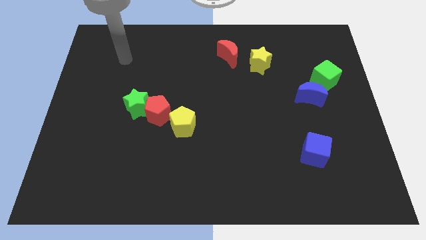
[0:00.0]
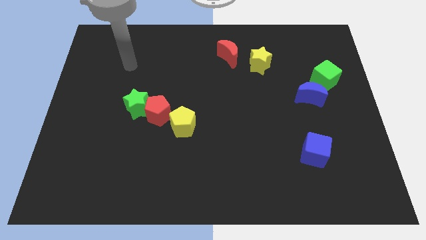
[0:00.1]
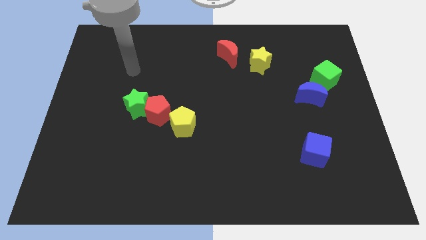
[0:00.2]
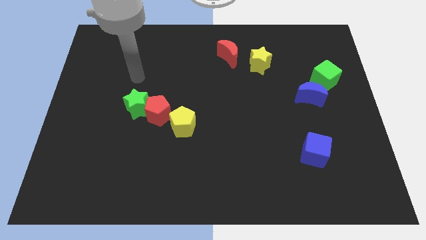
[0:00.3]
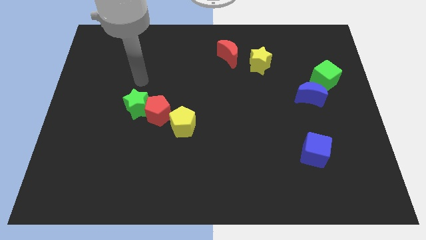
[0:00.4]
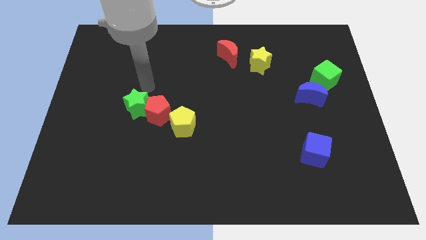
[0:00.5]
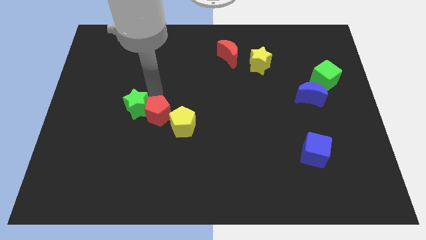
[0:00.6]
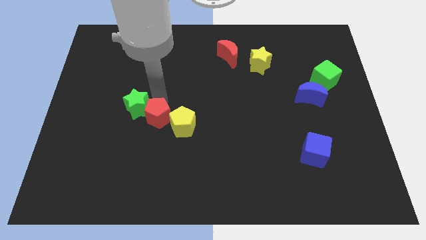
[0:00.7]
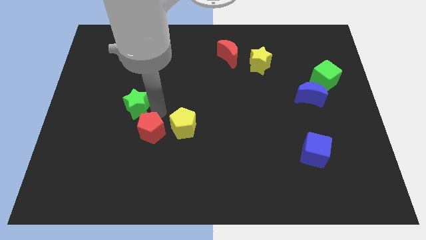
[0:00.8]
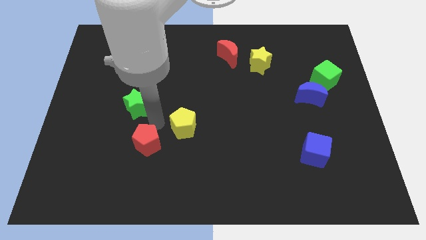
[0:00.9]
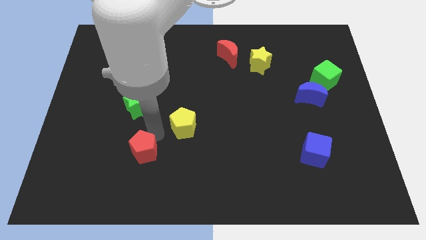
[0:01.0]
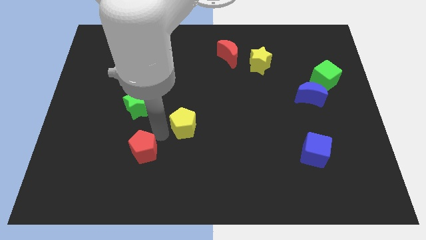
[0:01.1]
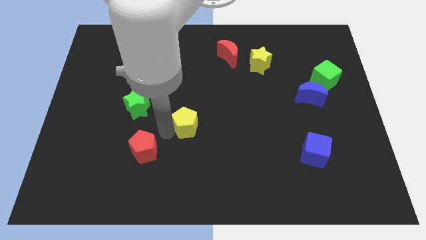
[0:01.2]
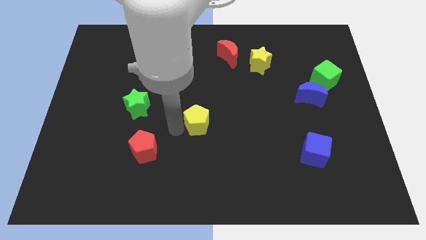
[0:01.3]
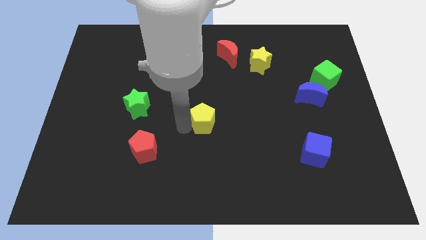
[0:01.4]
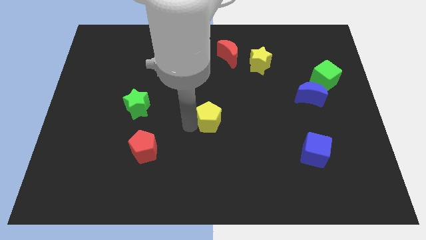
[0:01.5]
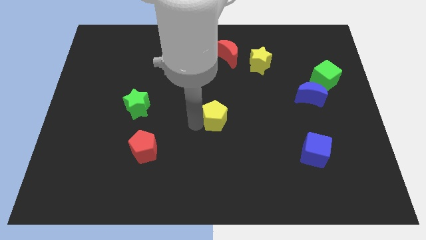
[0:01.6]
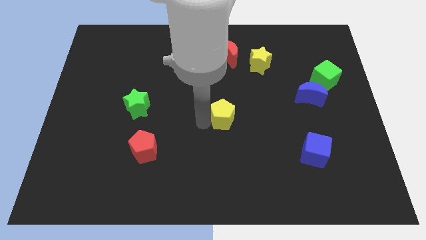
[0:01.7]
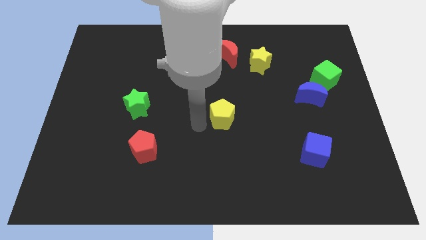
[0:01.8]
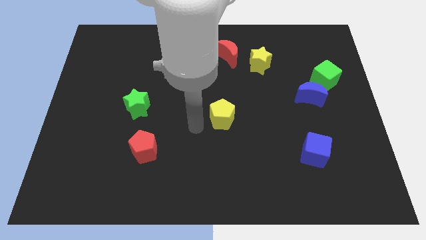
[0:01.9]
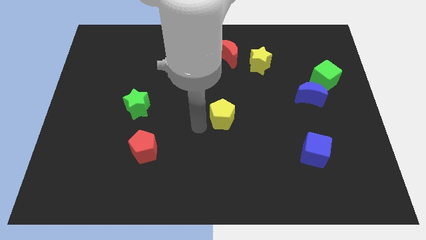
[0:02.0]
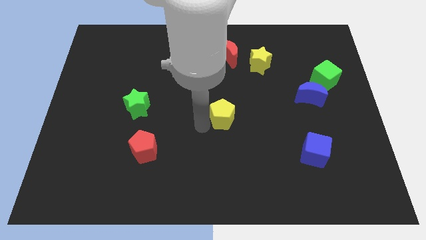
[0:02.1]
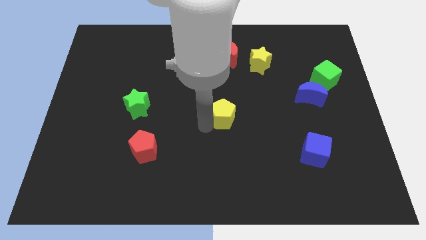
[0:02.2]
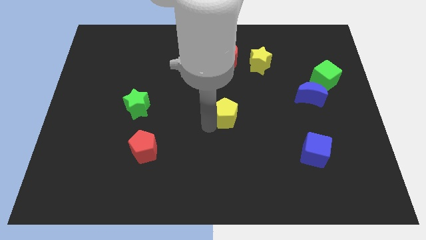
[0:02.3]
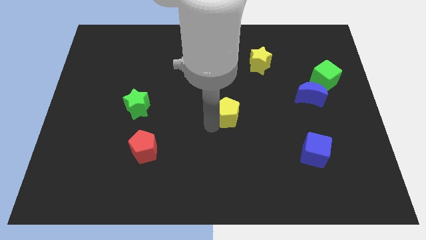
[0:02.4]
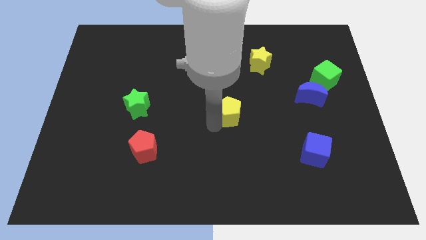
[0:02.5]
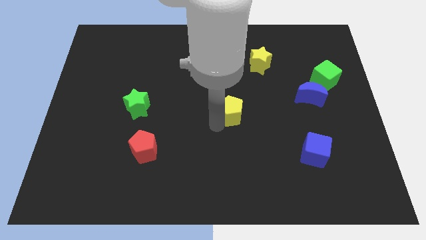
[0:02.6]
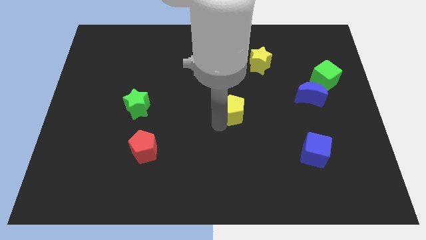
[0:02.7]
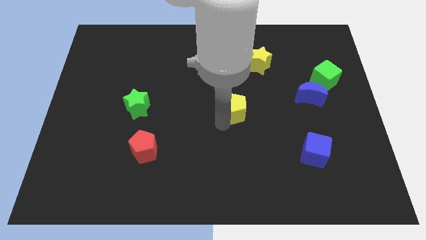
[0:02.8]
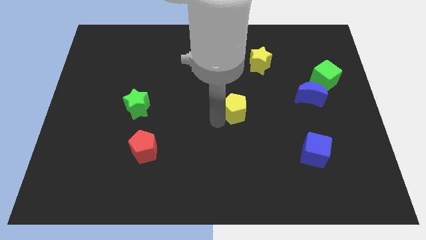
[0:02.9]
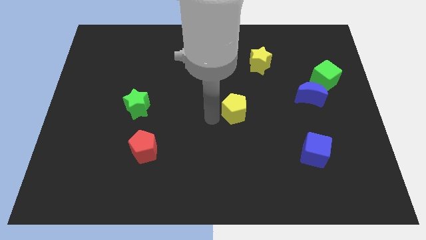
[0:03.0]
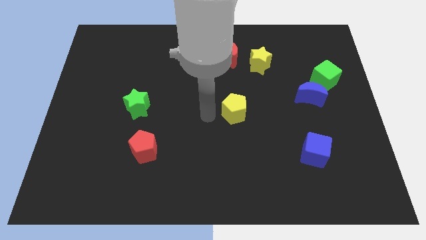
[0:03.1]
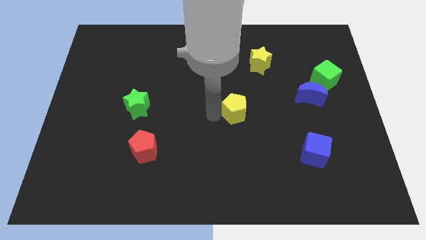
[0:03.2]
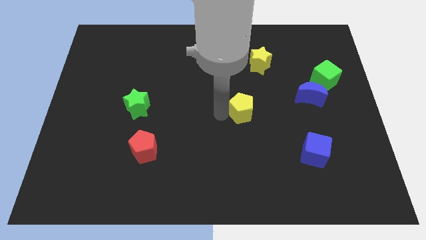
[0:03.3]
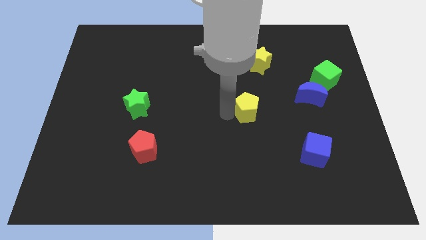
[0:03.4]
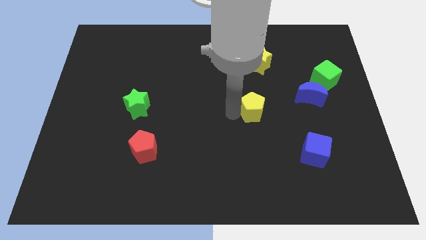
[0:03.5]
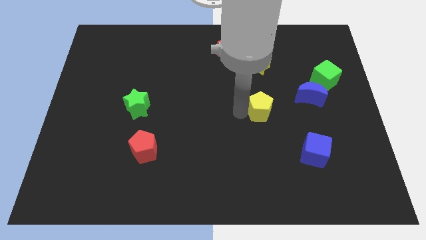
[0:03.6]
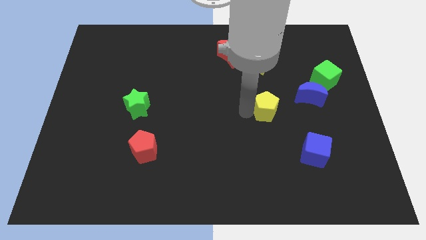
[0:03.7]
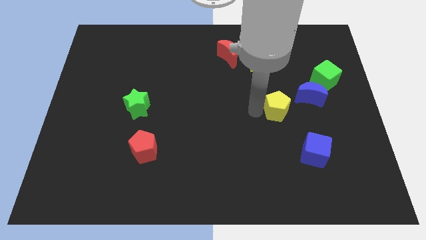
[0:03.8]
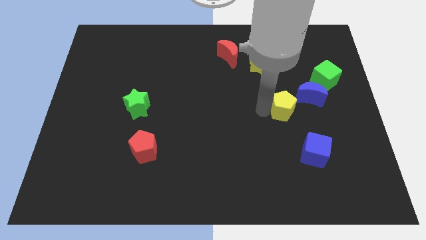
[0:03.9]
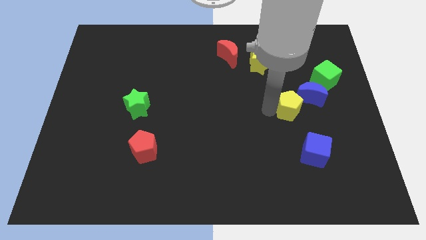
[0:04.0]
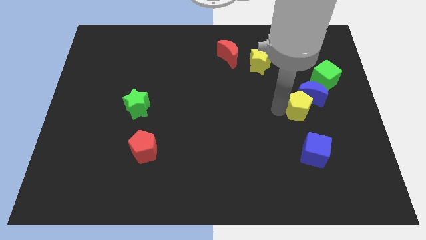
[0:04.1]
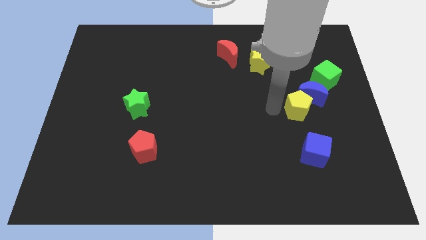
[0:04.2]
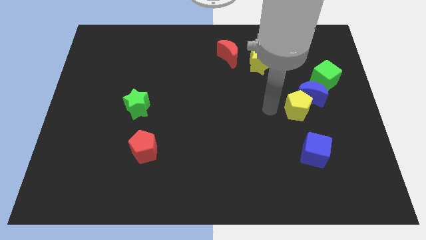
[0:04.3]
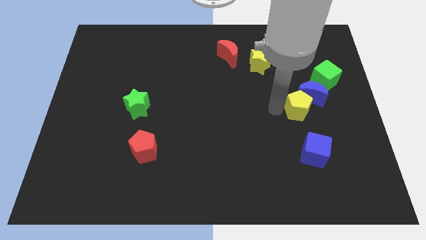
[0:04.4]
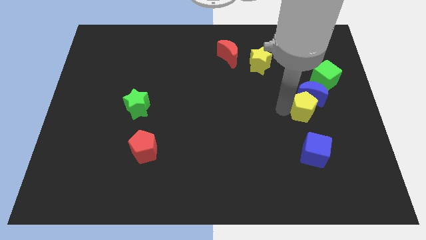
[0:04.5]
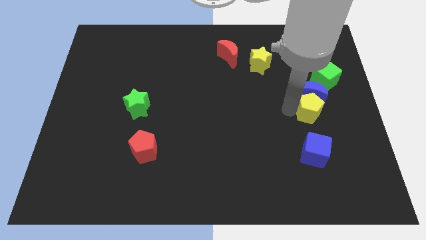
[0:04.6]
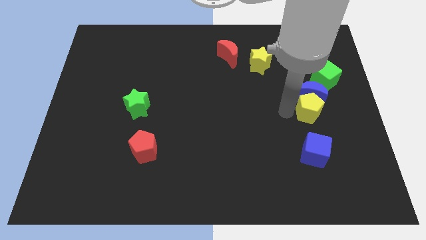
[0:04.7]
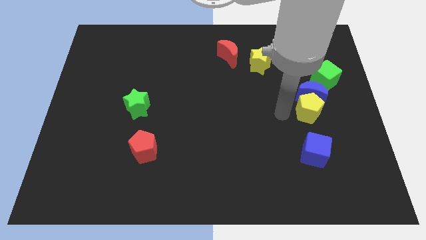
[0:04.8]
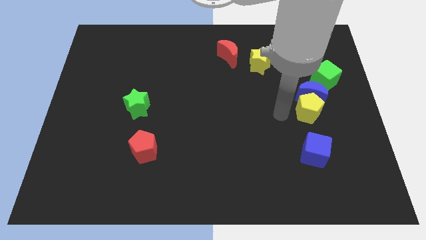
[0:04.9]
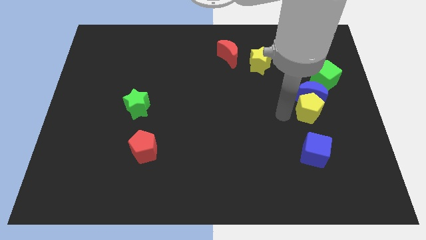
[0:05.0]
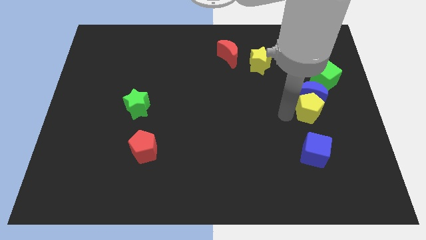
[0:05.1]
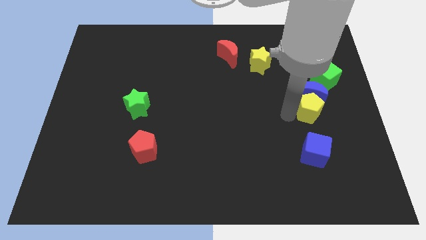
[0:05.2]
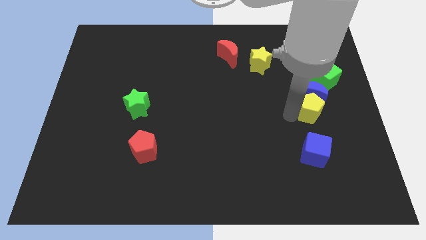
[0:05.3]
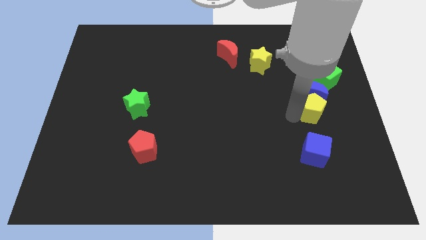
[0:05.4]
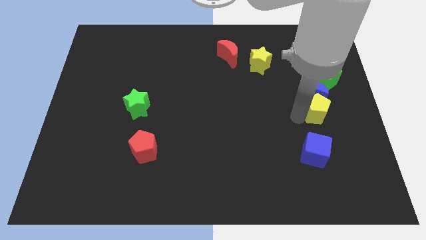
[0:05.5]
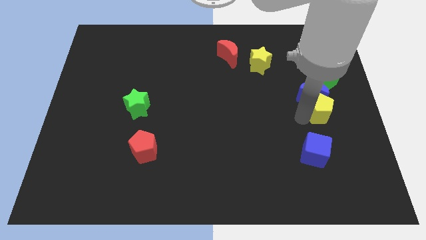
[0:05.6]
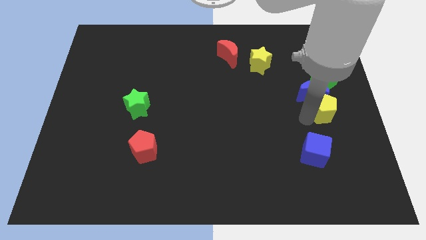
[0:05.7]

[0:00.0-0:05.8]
push the yellow pentagon to the right side
